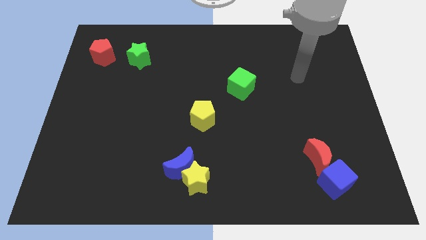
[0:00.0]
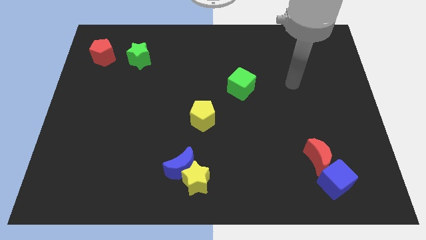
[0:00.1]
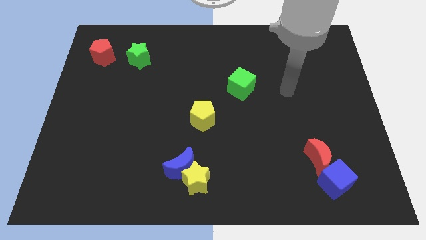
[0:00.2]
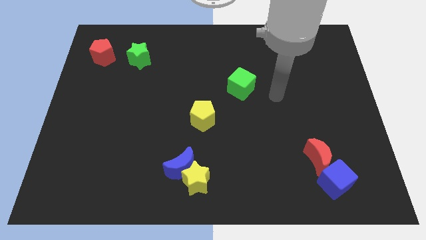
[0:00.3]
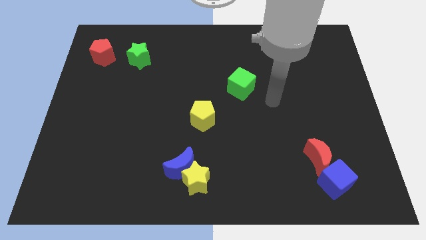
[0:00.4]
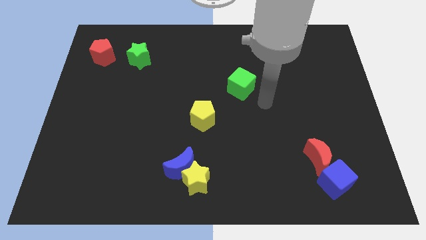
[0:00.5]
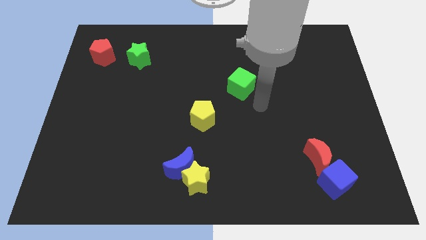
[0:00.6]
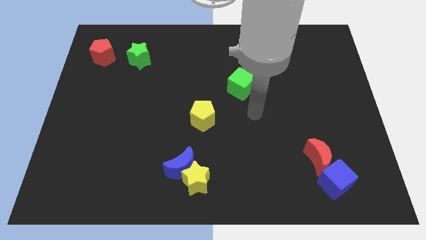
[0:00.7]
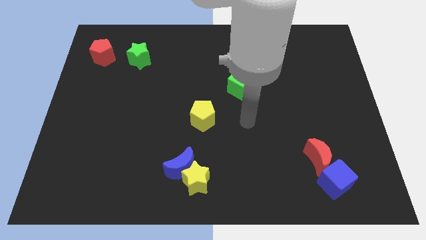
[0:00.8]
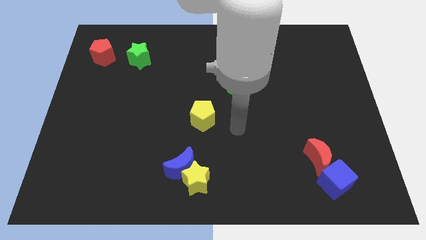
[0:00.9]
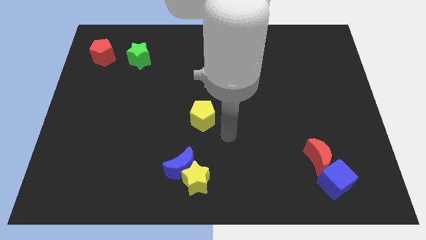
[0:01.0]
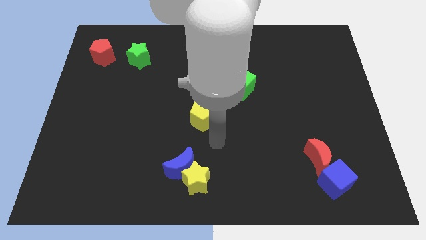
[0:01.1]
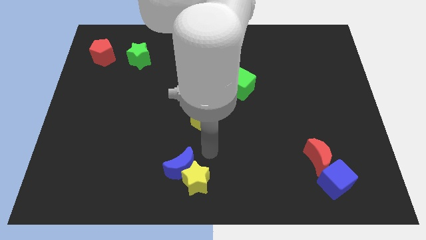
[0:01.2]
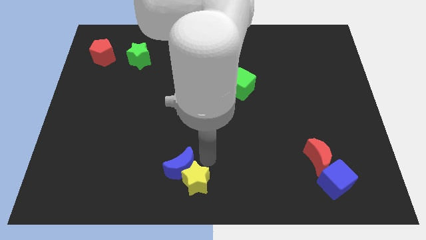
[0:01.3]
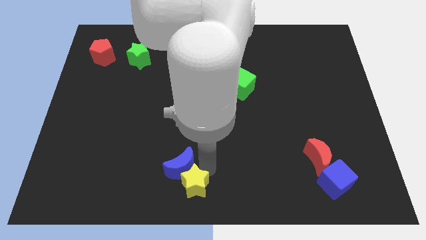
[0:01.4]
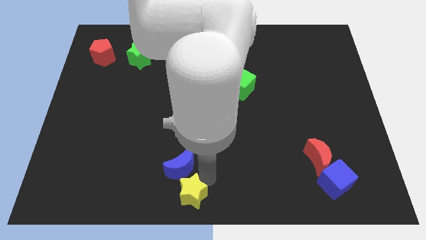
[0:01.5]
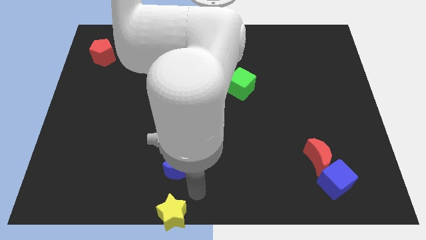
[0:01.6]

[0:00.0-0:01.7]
move the blue moon away from the yellow star

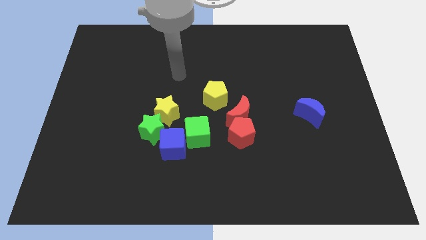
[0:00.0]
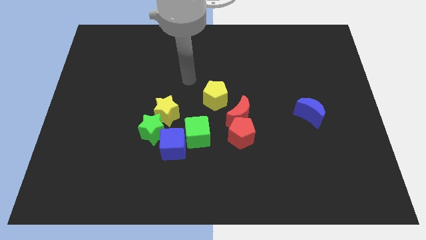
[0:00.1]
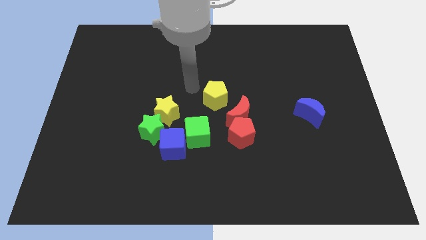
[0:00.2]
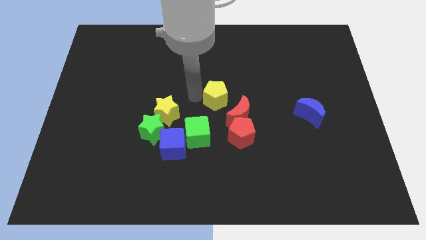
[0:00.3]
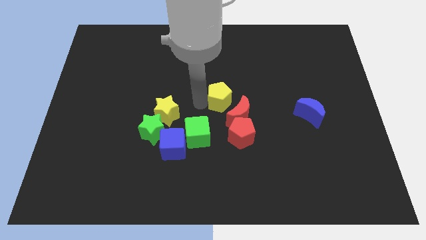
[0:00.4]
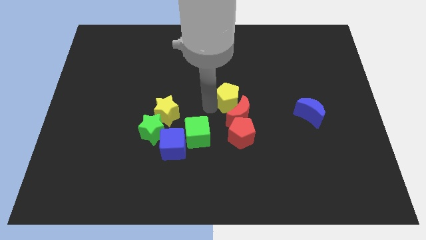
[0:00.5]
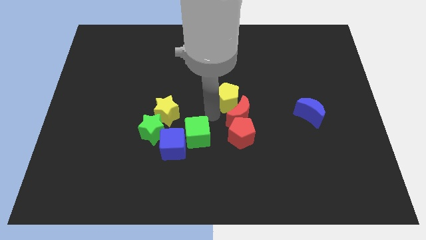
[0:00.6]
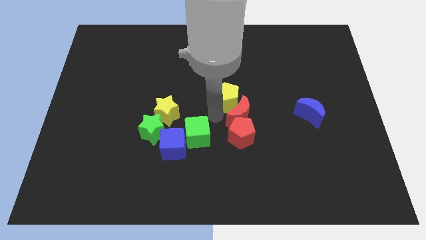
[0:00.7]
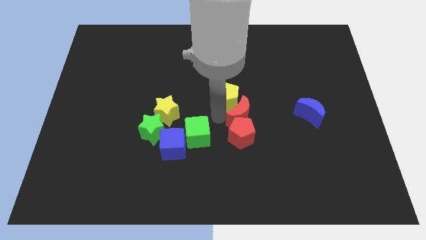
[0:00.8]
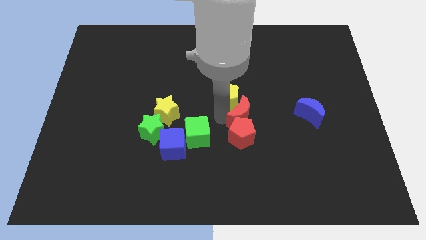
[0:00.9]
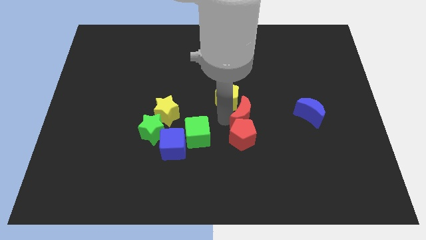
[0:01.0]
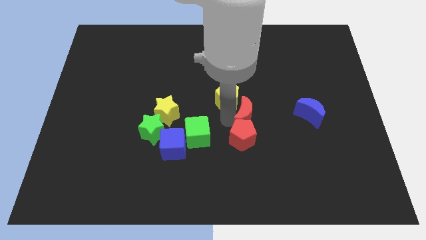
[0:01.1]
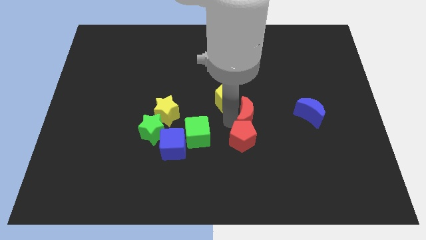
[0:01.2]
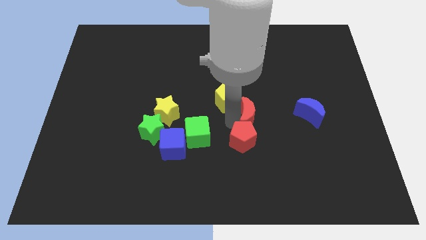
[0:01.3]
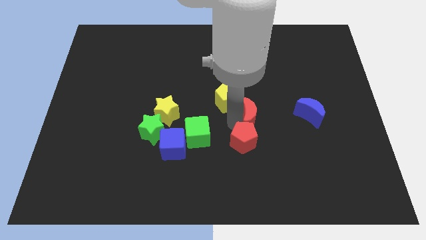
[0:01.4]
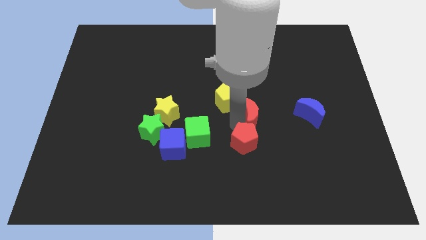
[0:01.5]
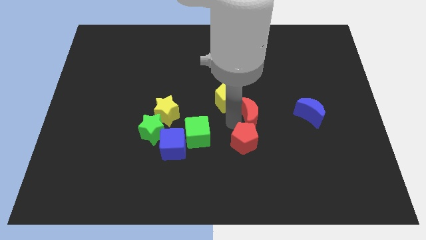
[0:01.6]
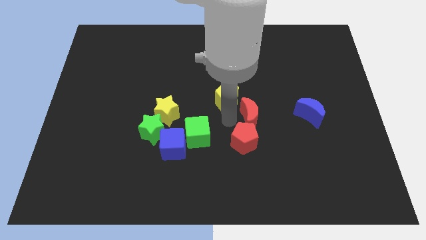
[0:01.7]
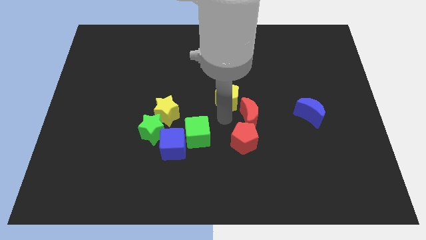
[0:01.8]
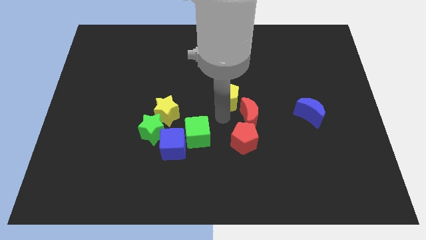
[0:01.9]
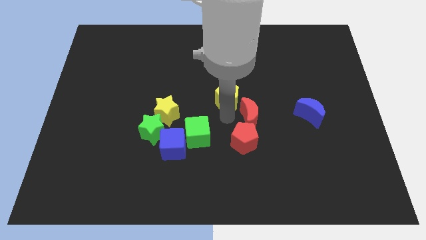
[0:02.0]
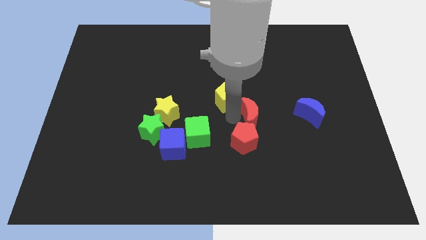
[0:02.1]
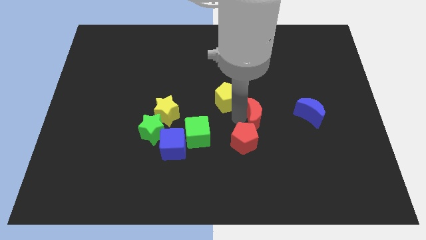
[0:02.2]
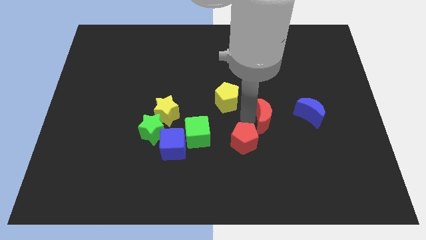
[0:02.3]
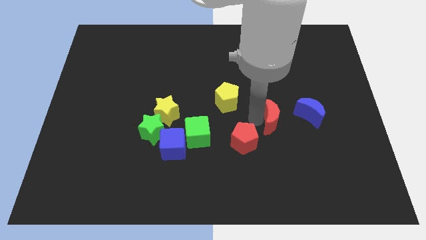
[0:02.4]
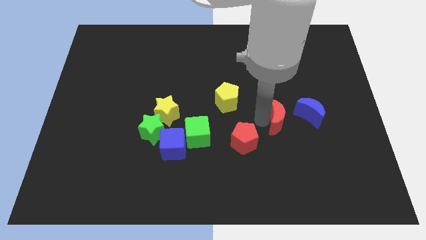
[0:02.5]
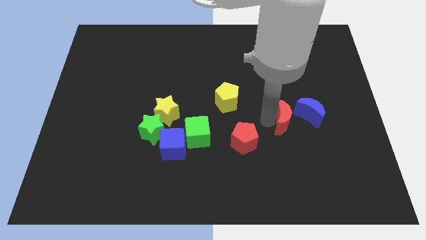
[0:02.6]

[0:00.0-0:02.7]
pull the red moon apart from the red pentagon and yellow pentagon

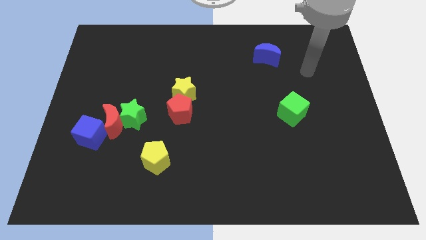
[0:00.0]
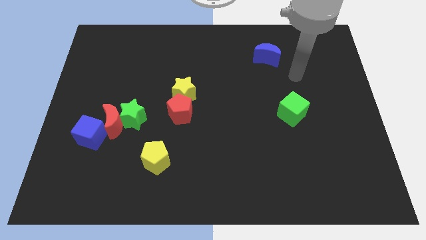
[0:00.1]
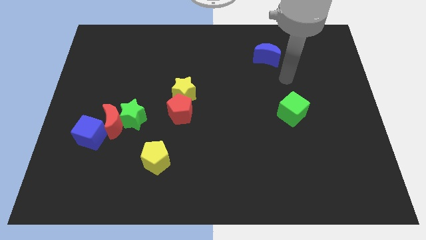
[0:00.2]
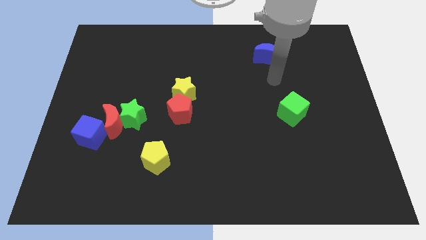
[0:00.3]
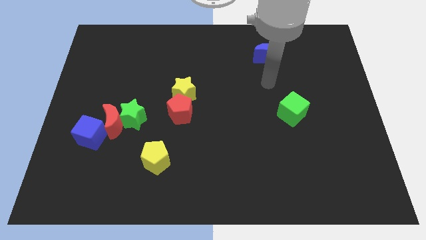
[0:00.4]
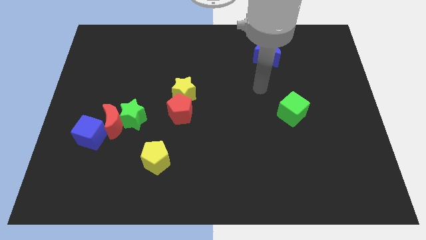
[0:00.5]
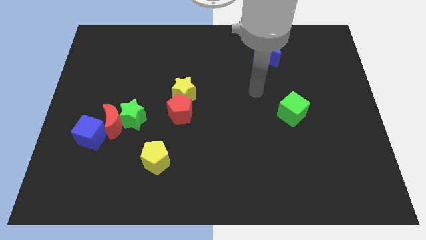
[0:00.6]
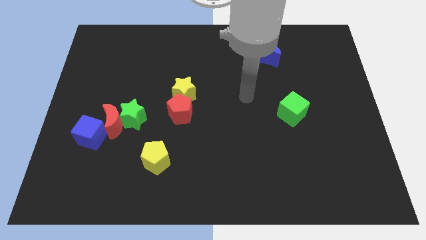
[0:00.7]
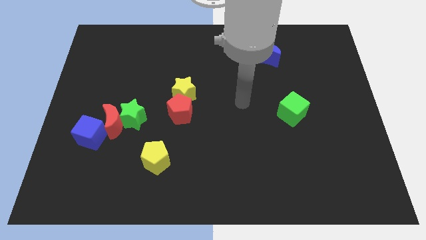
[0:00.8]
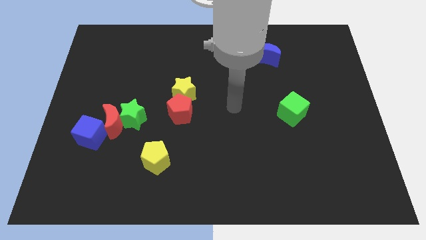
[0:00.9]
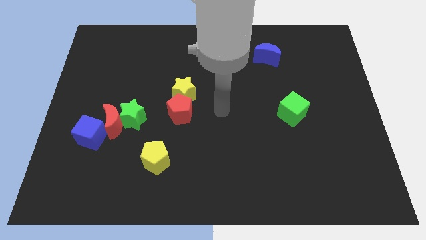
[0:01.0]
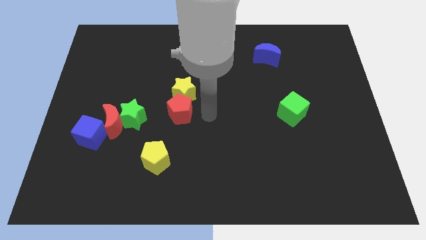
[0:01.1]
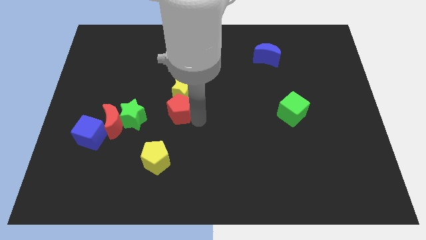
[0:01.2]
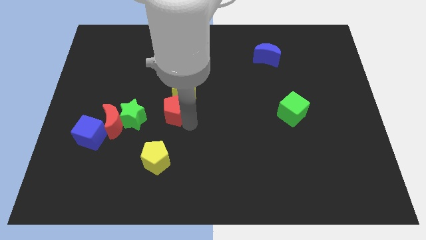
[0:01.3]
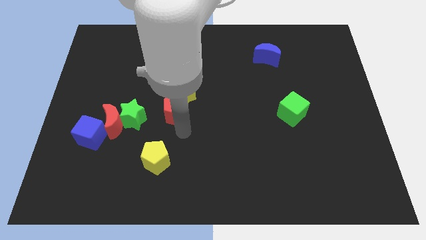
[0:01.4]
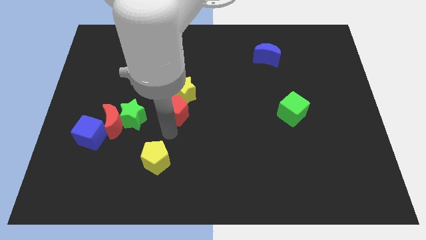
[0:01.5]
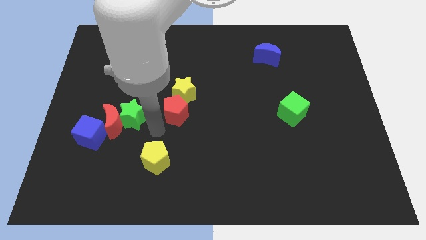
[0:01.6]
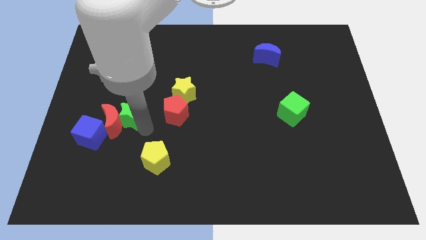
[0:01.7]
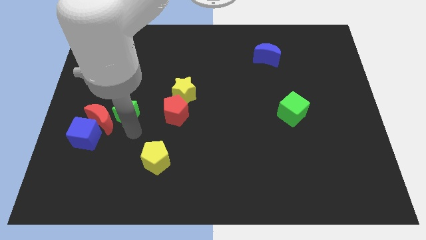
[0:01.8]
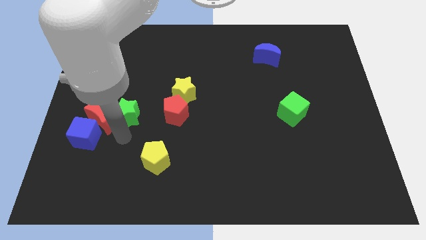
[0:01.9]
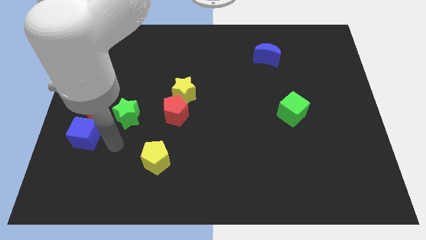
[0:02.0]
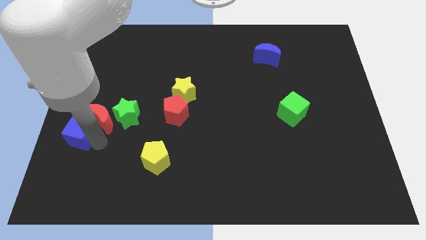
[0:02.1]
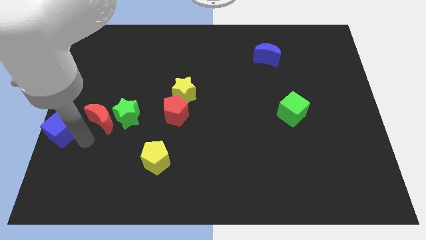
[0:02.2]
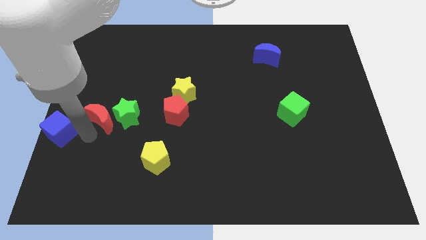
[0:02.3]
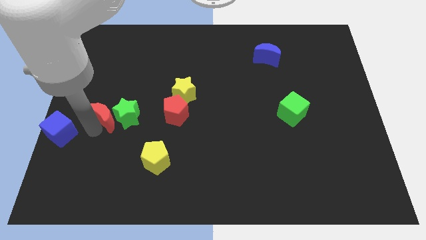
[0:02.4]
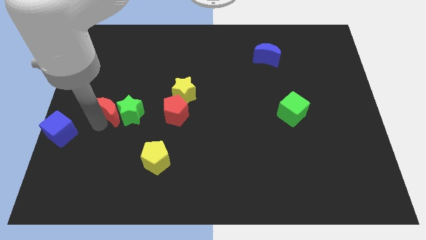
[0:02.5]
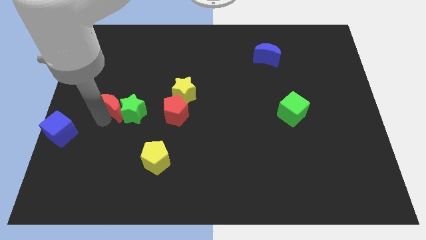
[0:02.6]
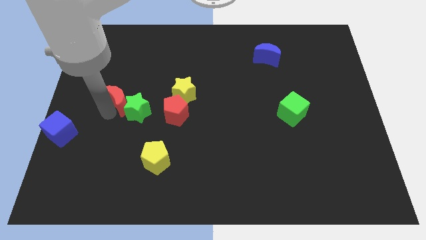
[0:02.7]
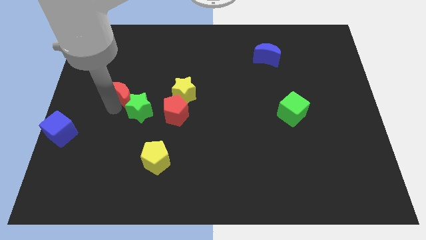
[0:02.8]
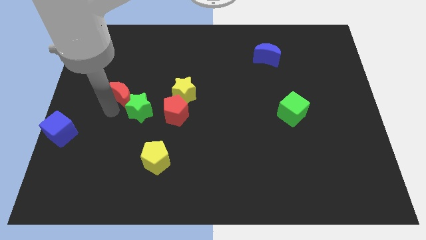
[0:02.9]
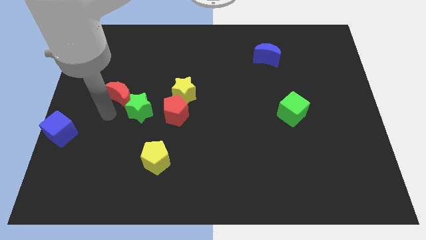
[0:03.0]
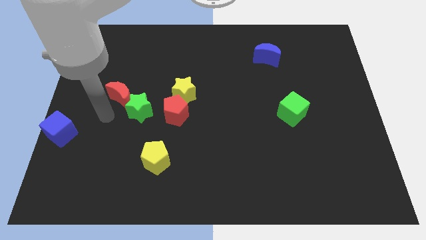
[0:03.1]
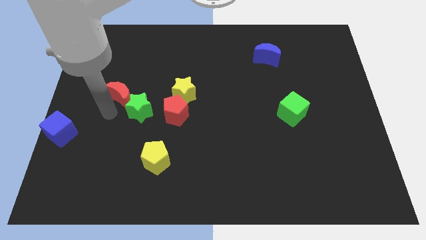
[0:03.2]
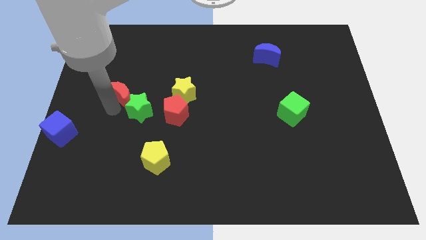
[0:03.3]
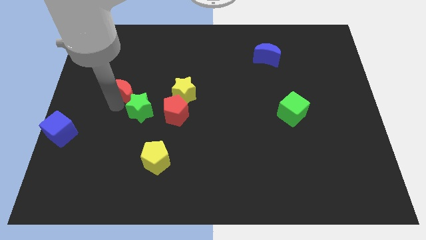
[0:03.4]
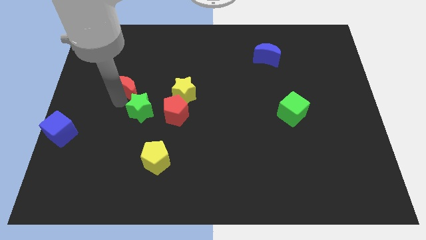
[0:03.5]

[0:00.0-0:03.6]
pull the red moon apart from the green star and blue cube

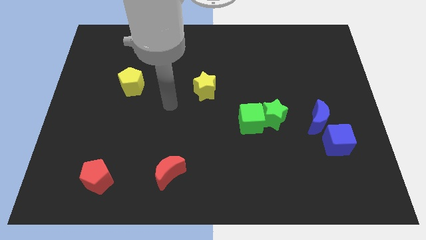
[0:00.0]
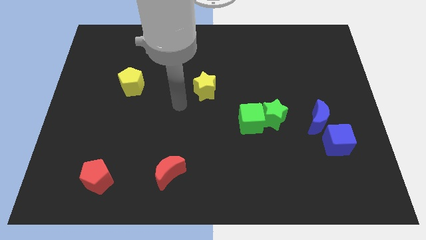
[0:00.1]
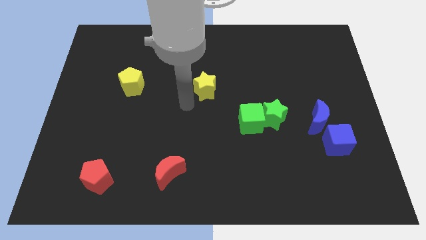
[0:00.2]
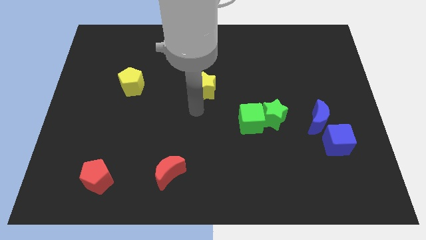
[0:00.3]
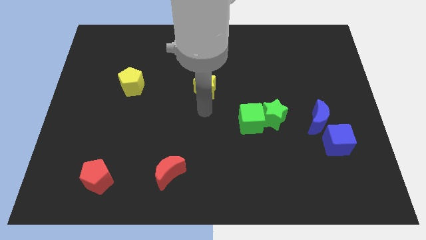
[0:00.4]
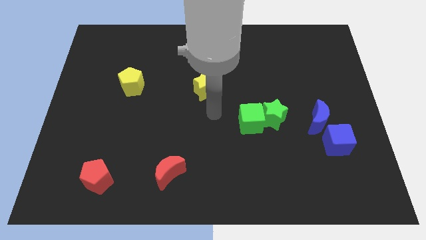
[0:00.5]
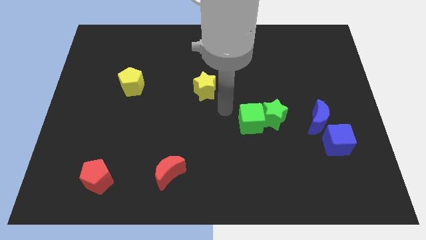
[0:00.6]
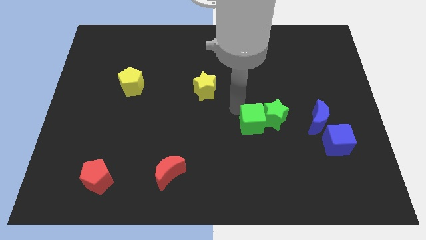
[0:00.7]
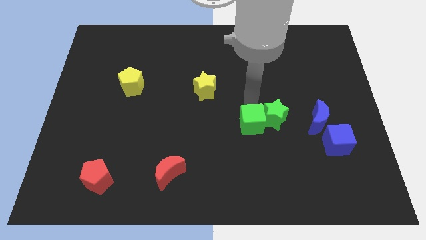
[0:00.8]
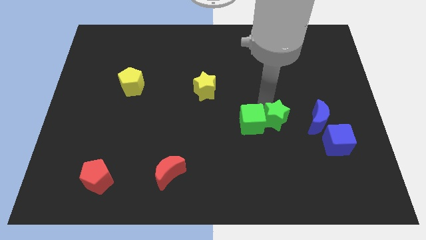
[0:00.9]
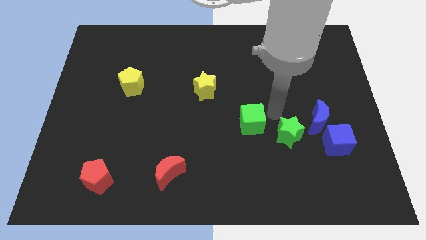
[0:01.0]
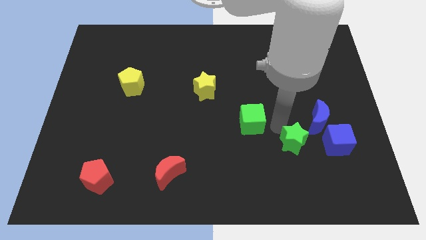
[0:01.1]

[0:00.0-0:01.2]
move the green cube away from the green star
